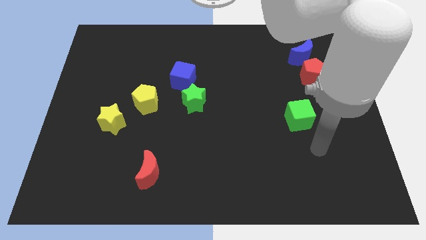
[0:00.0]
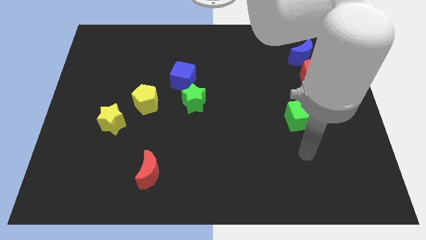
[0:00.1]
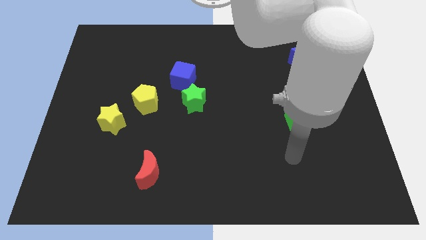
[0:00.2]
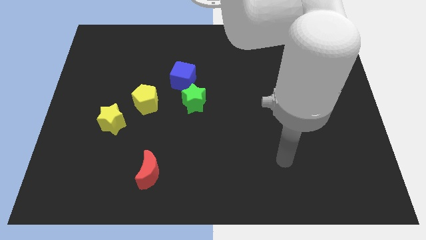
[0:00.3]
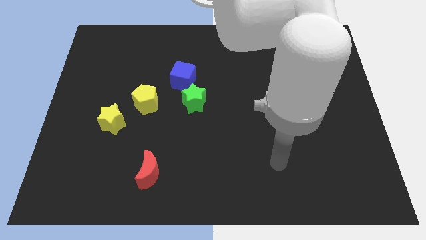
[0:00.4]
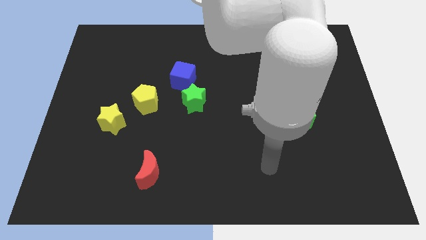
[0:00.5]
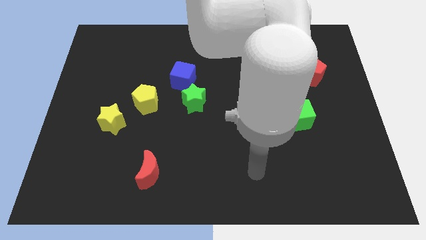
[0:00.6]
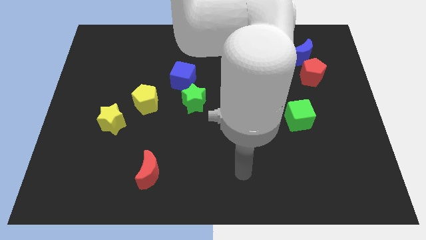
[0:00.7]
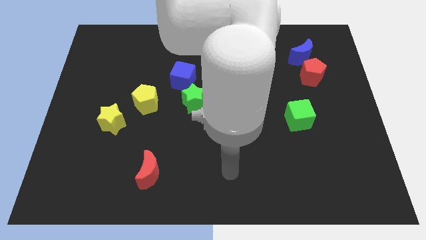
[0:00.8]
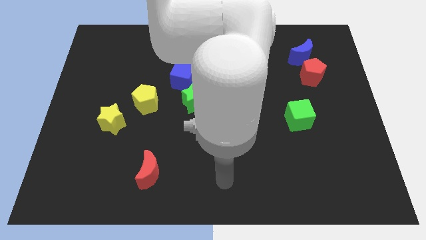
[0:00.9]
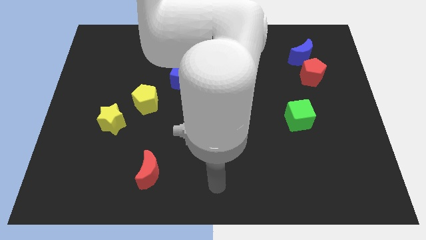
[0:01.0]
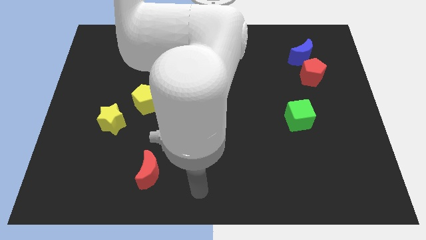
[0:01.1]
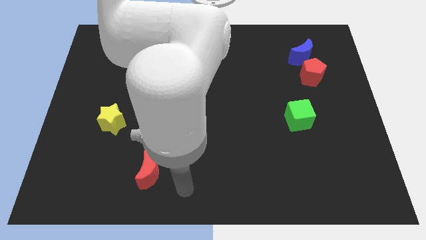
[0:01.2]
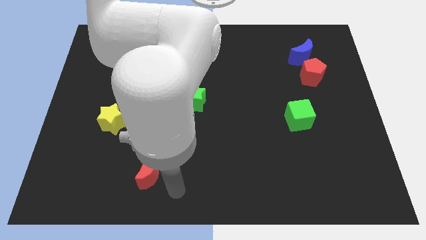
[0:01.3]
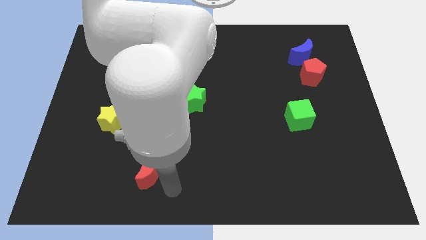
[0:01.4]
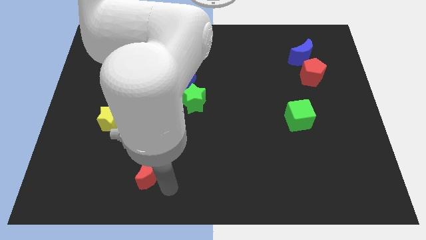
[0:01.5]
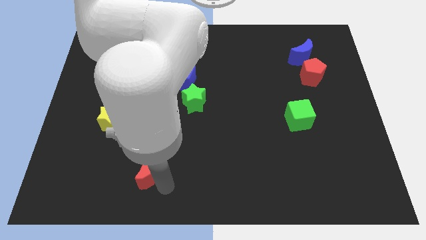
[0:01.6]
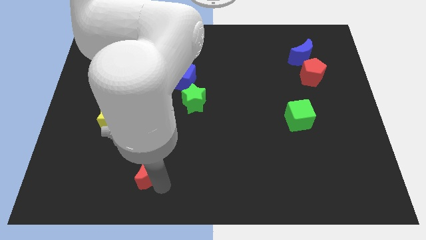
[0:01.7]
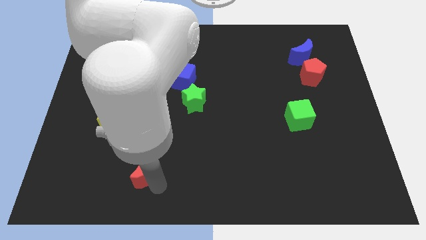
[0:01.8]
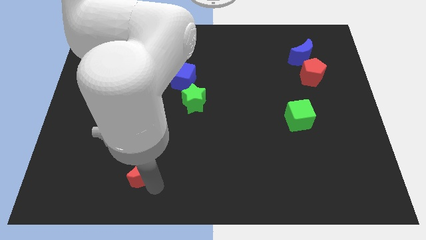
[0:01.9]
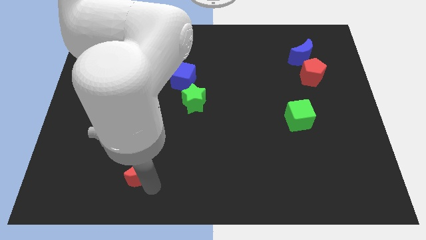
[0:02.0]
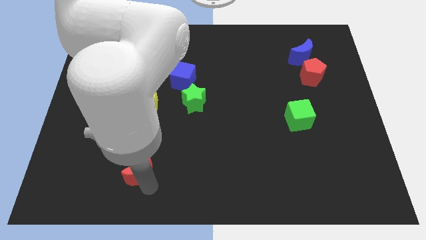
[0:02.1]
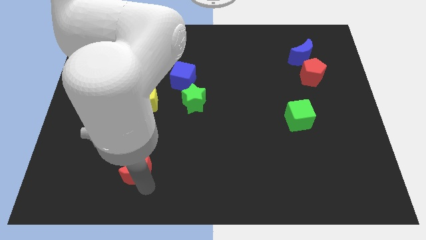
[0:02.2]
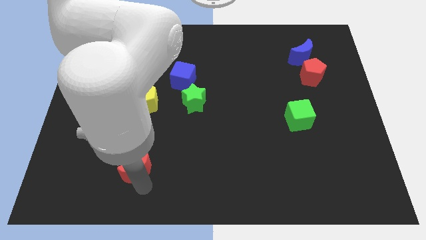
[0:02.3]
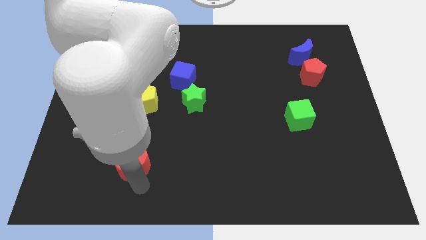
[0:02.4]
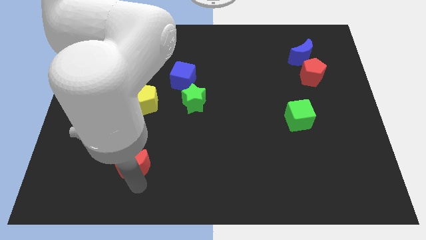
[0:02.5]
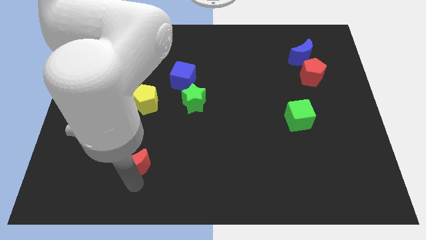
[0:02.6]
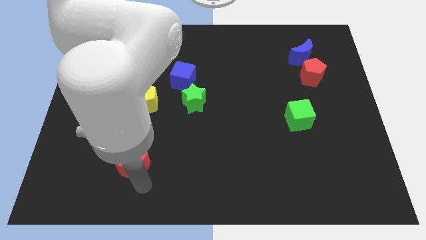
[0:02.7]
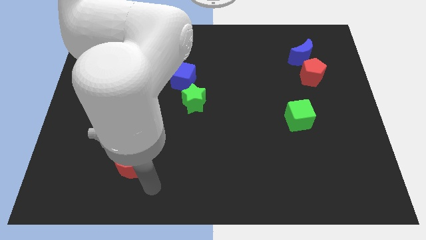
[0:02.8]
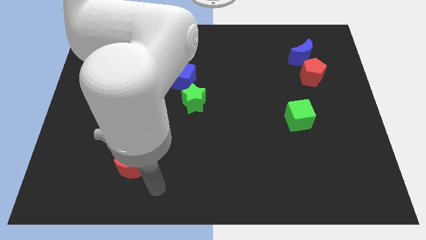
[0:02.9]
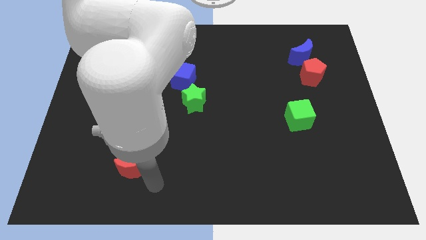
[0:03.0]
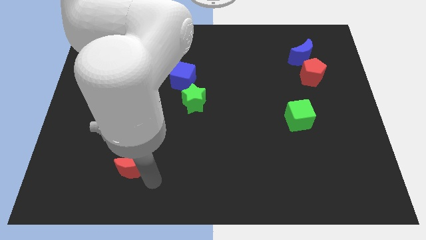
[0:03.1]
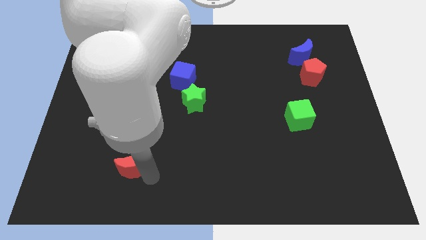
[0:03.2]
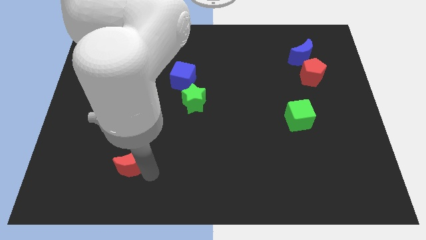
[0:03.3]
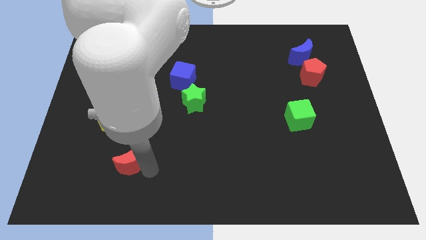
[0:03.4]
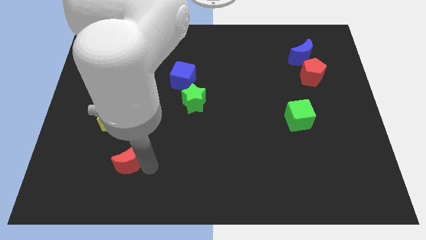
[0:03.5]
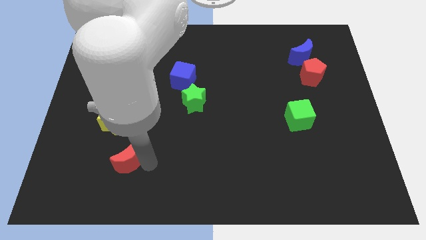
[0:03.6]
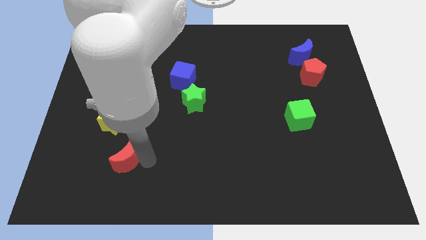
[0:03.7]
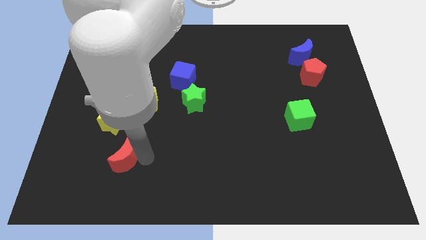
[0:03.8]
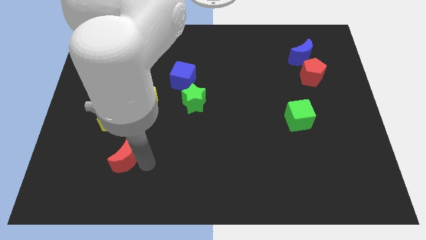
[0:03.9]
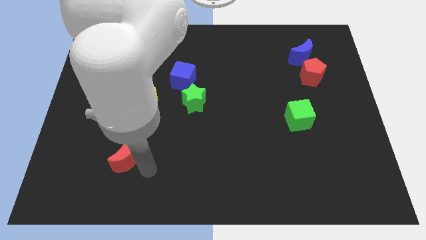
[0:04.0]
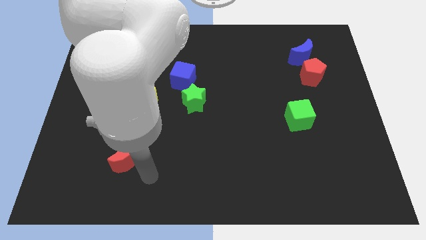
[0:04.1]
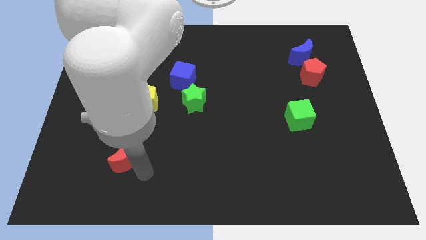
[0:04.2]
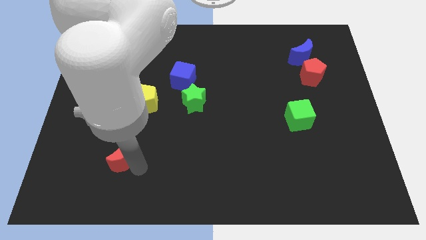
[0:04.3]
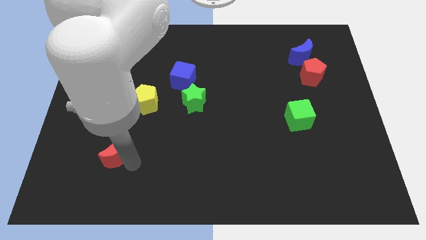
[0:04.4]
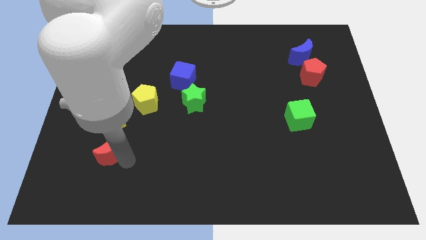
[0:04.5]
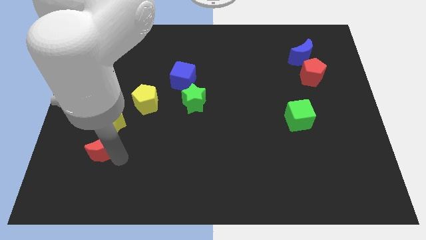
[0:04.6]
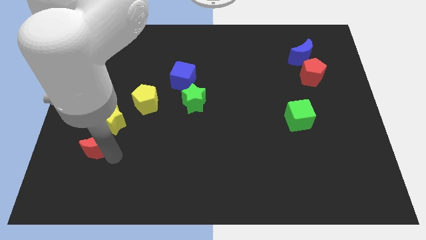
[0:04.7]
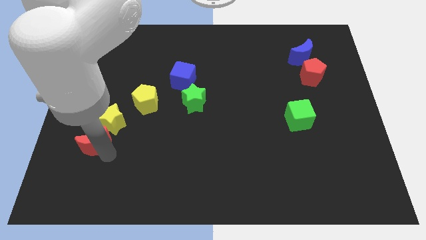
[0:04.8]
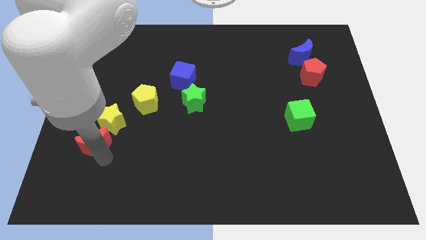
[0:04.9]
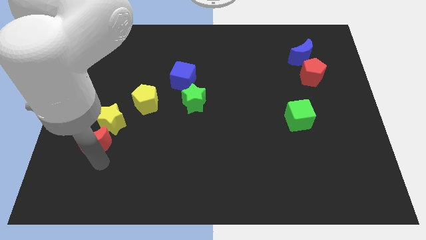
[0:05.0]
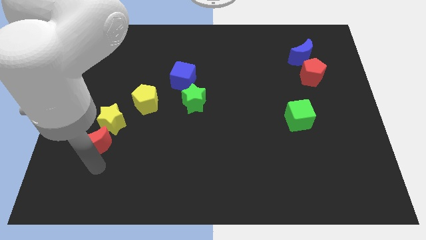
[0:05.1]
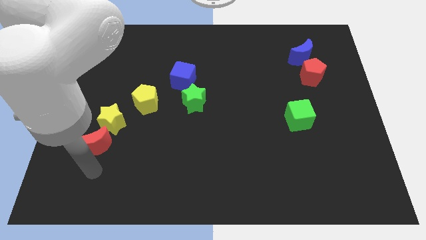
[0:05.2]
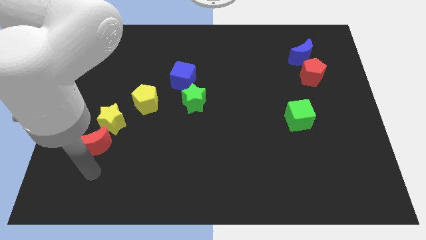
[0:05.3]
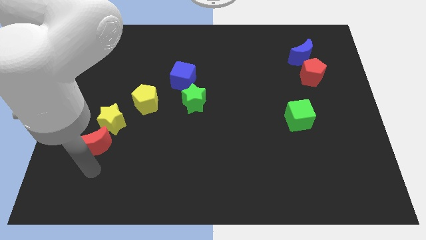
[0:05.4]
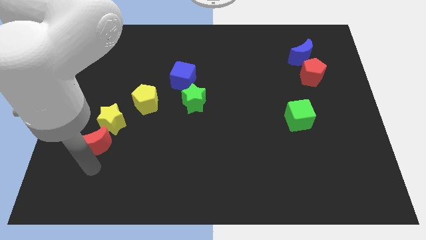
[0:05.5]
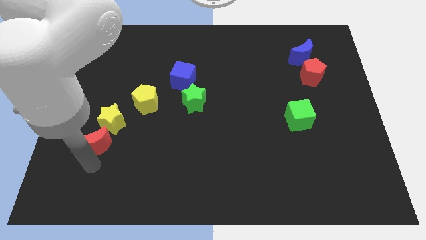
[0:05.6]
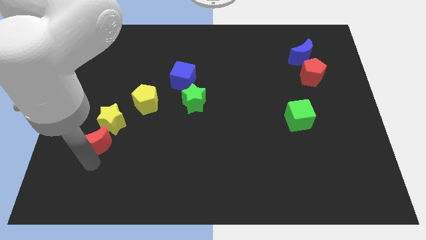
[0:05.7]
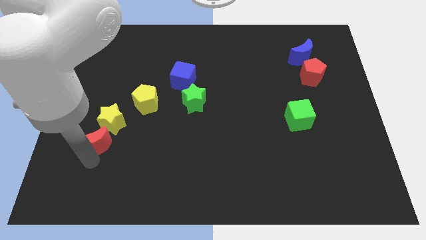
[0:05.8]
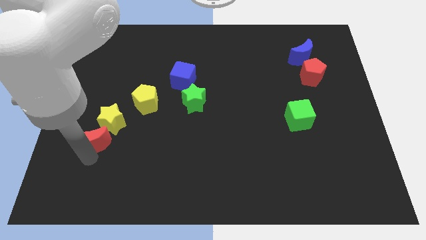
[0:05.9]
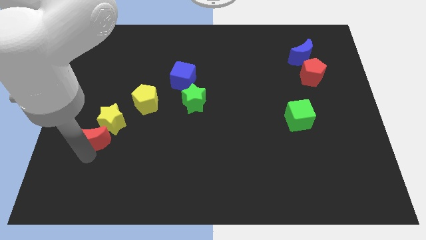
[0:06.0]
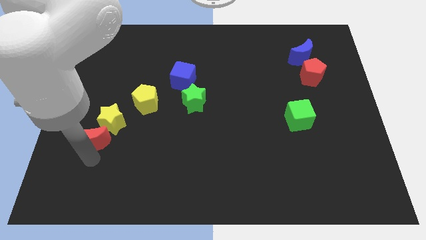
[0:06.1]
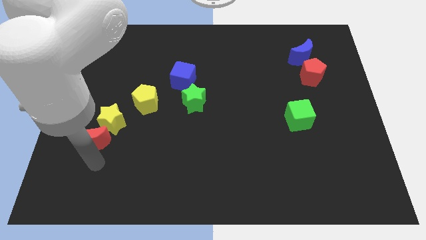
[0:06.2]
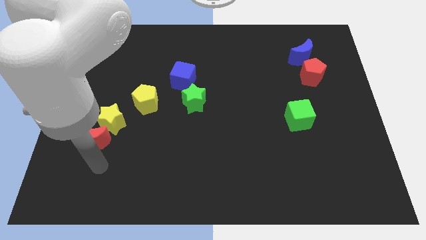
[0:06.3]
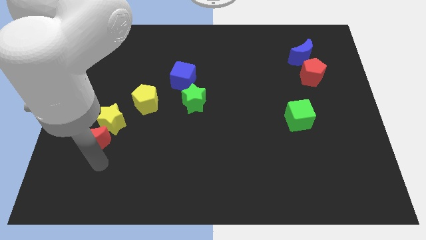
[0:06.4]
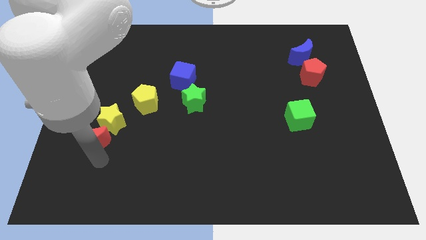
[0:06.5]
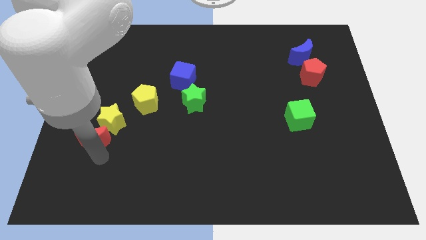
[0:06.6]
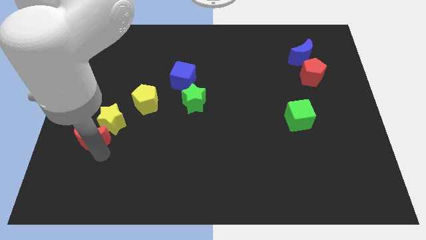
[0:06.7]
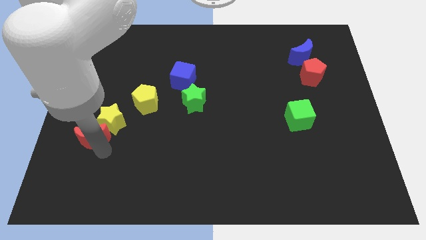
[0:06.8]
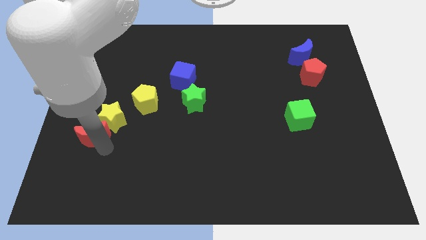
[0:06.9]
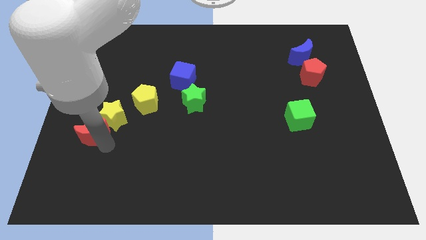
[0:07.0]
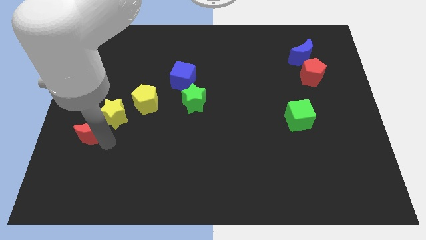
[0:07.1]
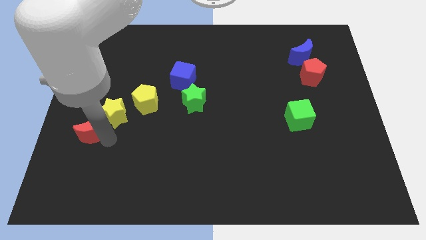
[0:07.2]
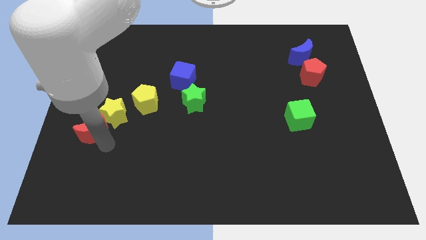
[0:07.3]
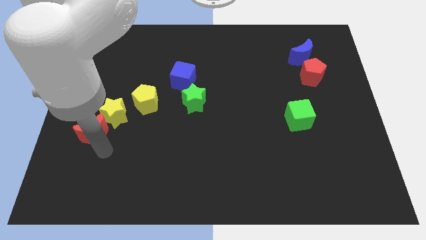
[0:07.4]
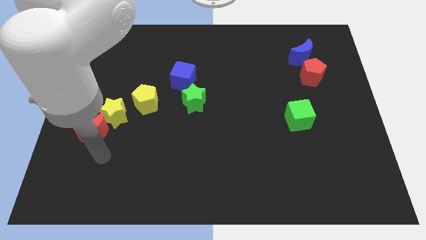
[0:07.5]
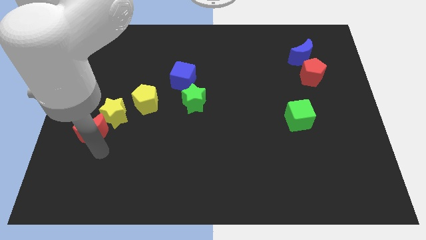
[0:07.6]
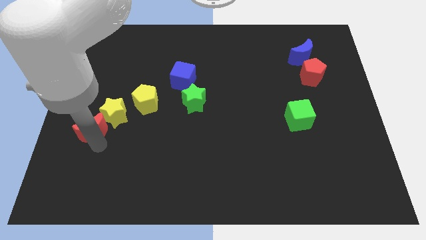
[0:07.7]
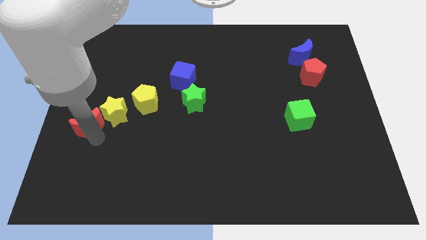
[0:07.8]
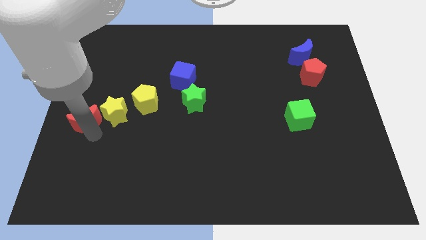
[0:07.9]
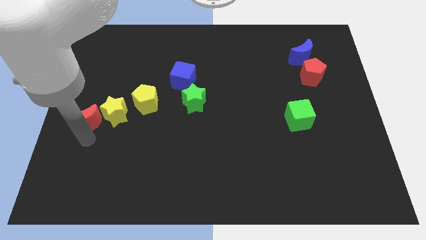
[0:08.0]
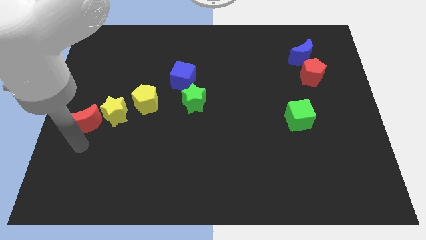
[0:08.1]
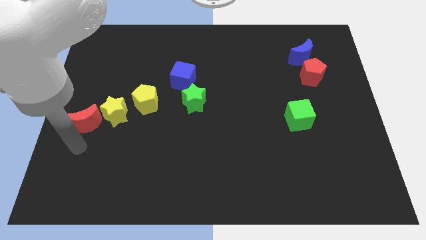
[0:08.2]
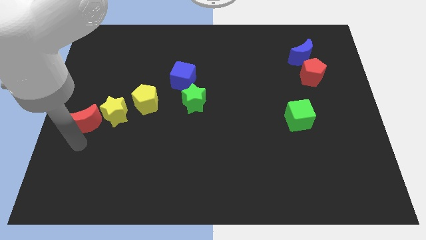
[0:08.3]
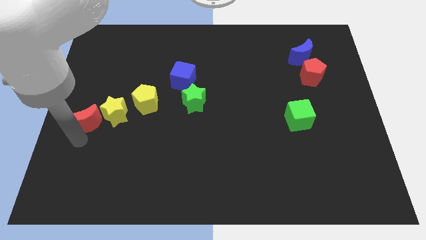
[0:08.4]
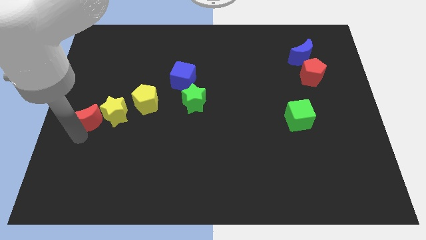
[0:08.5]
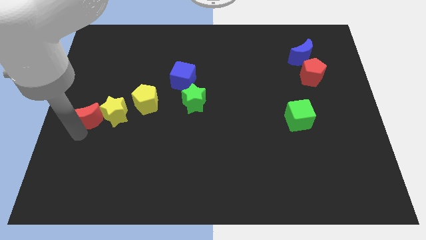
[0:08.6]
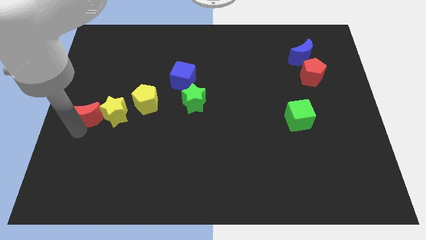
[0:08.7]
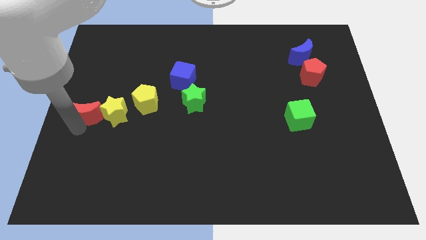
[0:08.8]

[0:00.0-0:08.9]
slide the red moon to the top left of the yellow star
